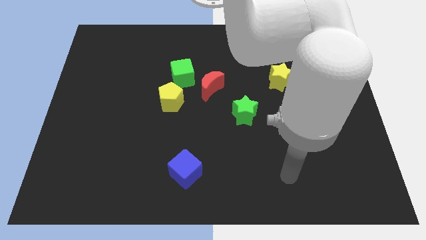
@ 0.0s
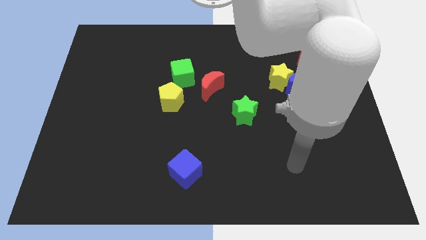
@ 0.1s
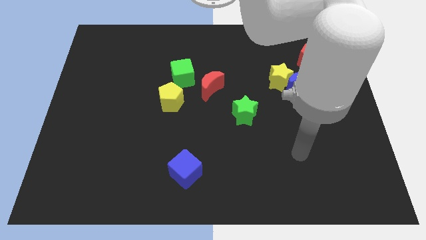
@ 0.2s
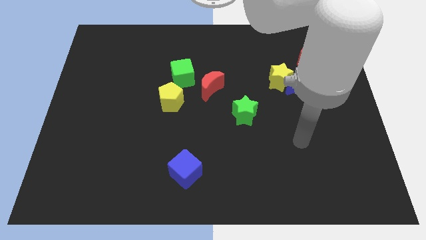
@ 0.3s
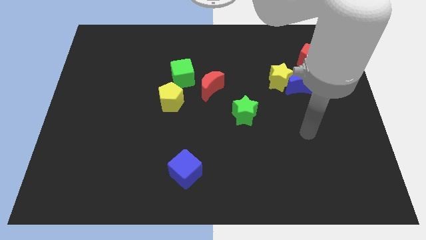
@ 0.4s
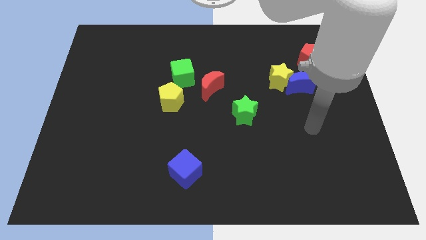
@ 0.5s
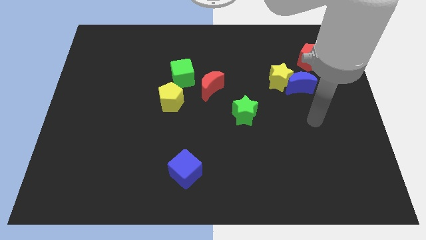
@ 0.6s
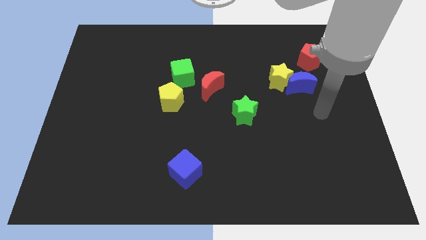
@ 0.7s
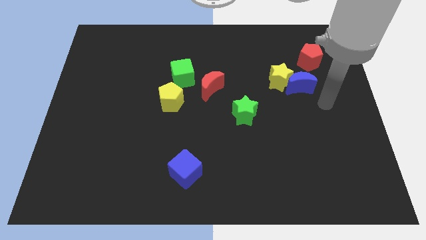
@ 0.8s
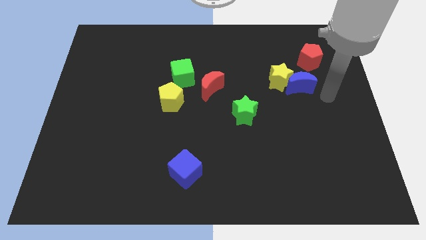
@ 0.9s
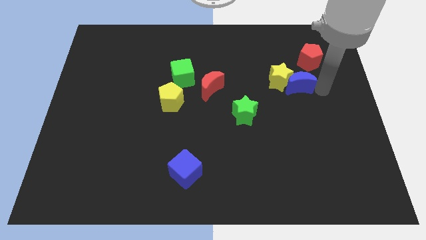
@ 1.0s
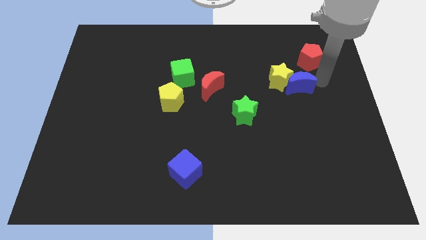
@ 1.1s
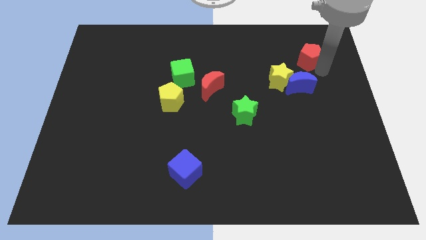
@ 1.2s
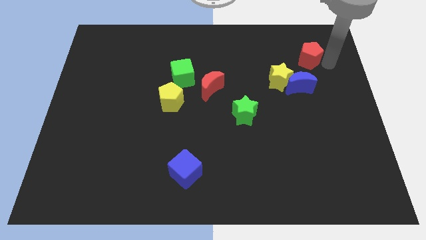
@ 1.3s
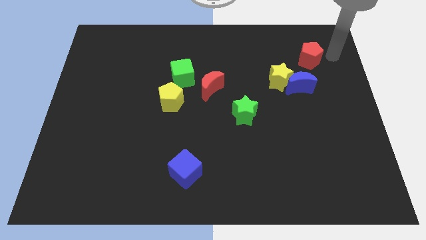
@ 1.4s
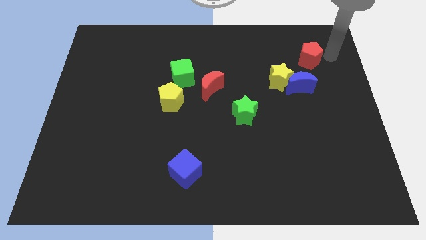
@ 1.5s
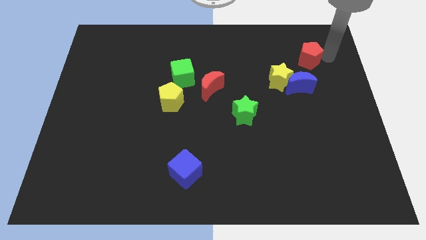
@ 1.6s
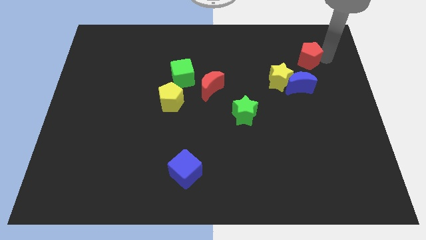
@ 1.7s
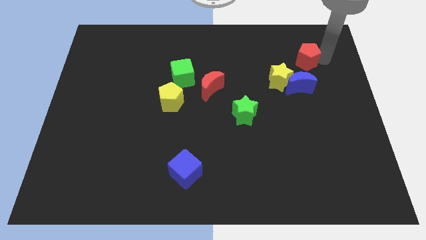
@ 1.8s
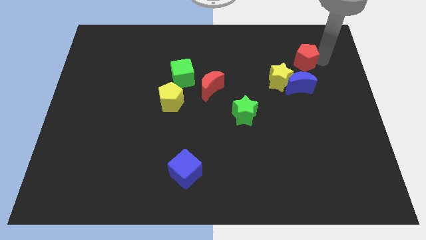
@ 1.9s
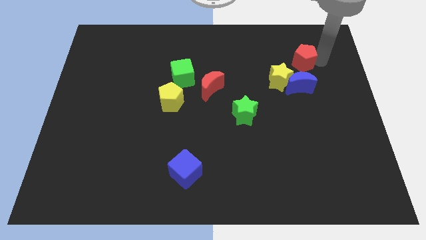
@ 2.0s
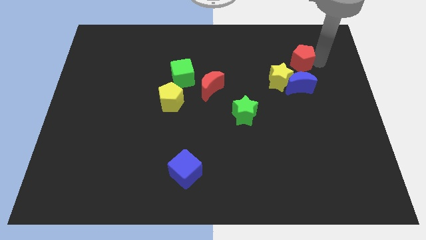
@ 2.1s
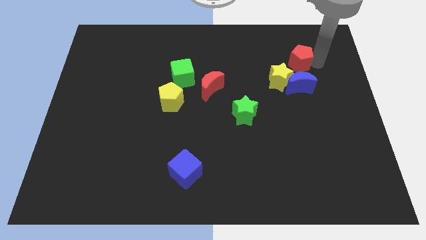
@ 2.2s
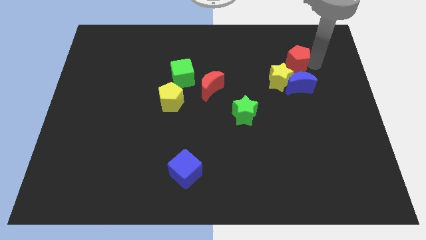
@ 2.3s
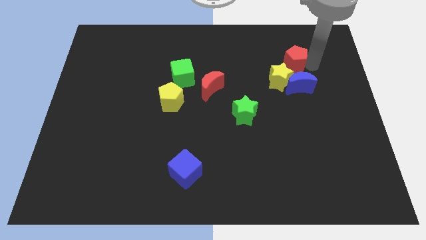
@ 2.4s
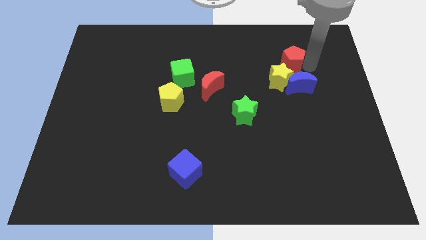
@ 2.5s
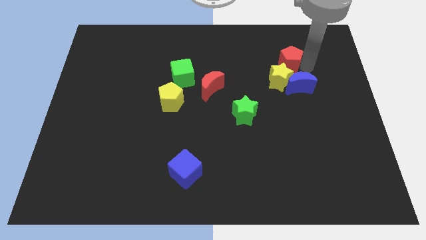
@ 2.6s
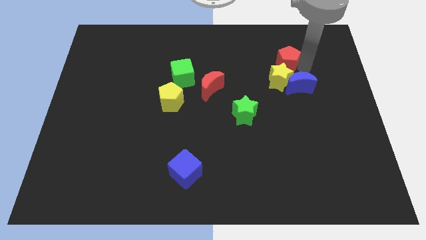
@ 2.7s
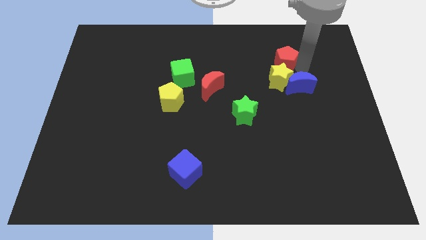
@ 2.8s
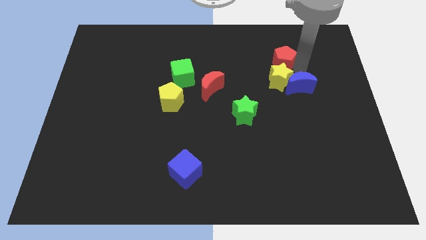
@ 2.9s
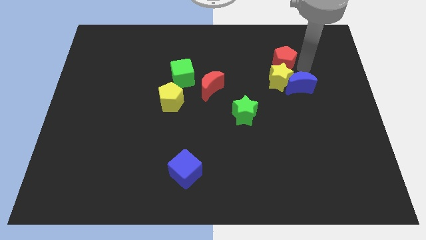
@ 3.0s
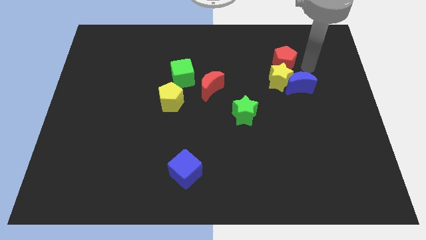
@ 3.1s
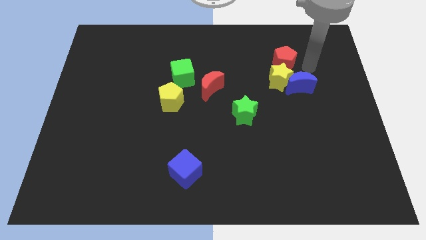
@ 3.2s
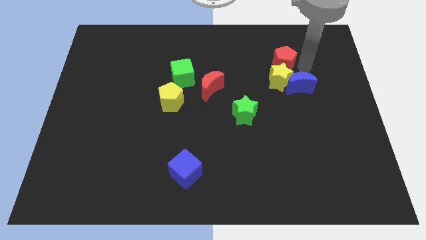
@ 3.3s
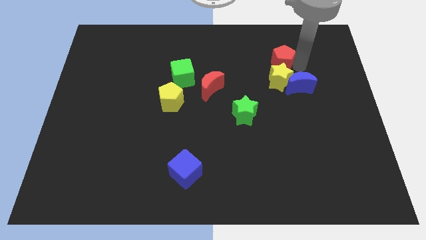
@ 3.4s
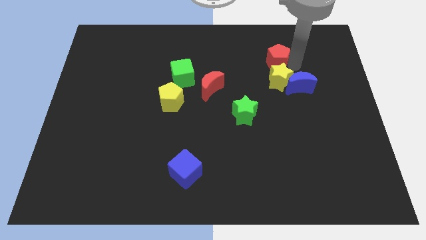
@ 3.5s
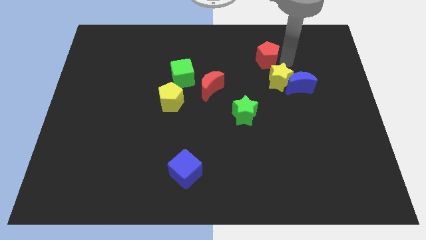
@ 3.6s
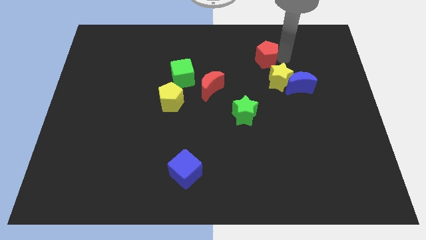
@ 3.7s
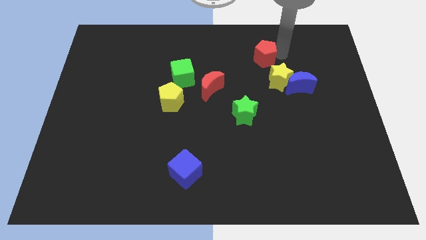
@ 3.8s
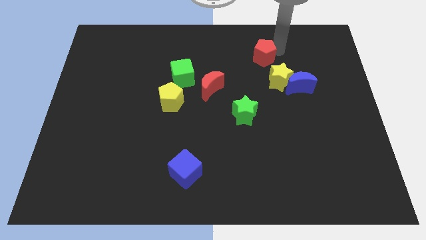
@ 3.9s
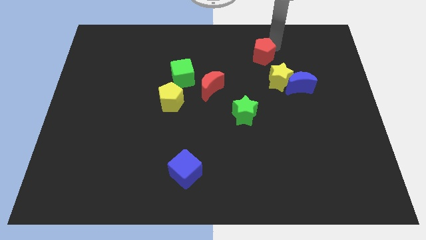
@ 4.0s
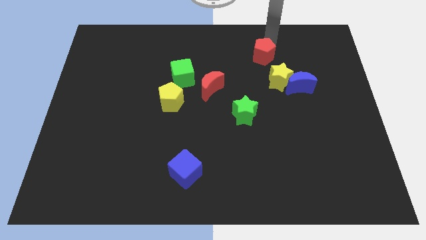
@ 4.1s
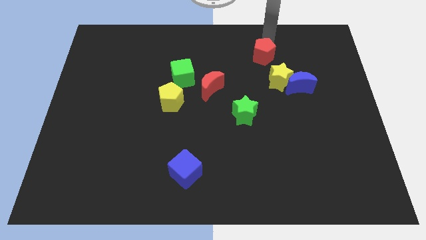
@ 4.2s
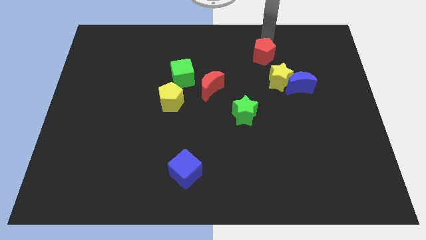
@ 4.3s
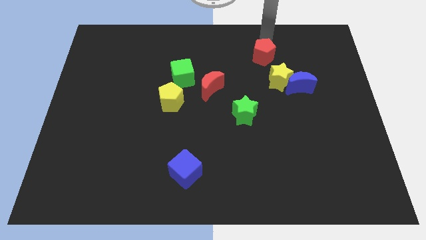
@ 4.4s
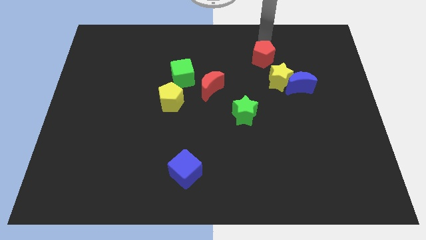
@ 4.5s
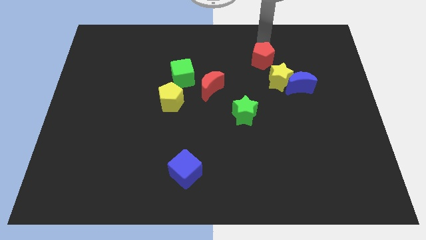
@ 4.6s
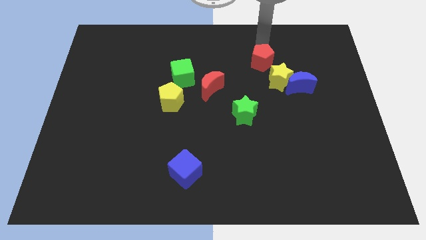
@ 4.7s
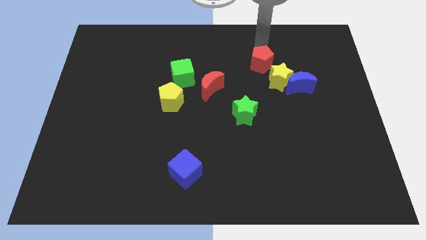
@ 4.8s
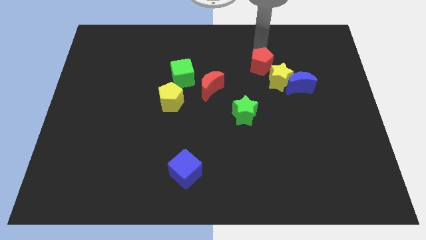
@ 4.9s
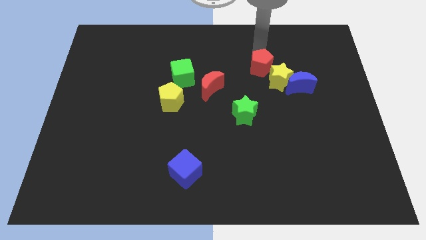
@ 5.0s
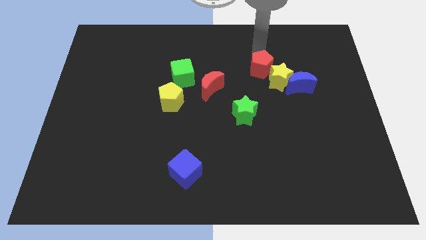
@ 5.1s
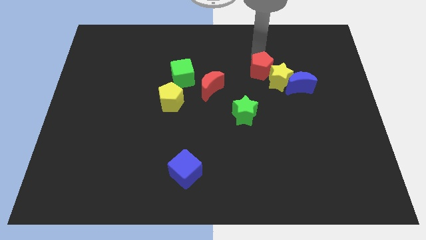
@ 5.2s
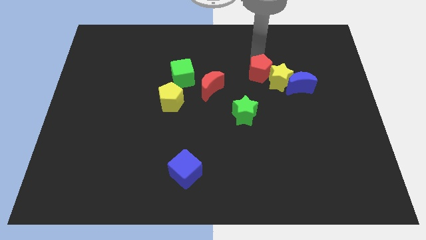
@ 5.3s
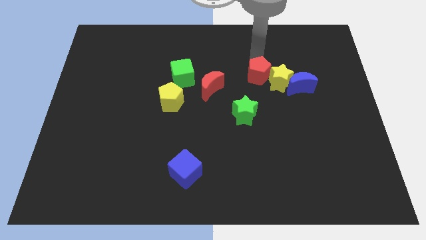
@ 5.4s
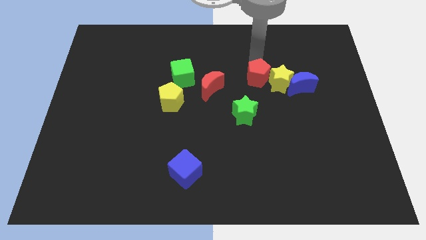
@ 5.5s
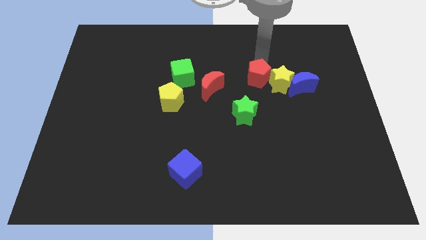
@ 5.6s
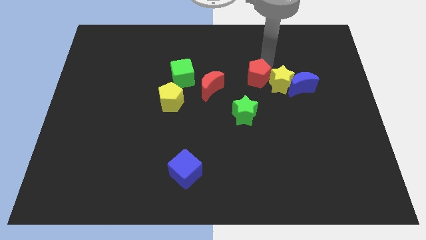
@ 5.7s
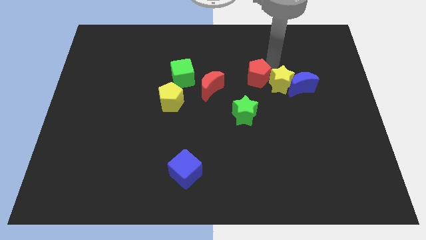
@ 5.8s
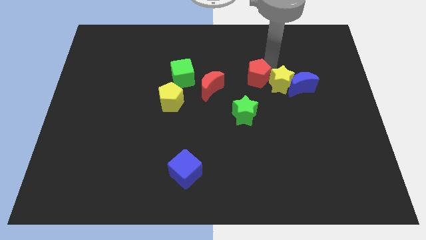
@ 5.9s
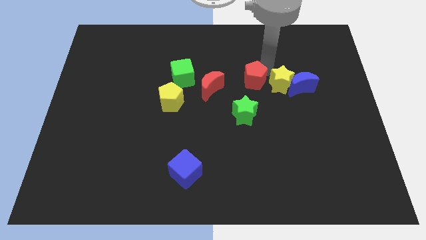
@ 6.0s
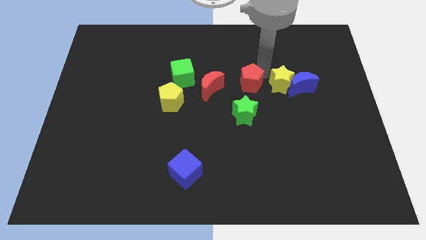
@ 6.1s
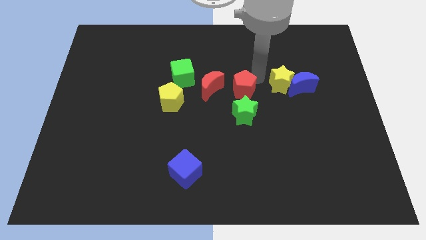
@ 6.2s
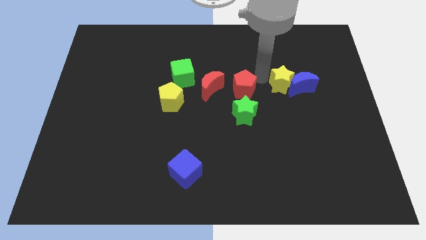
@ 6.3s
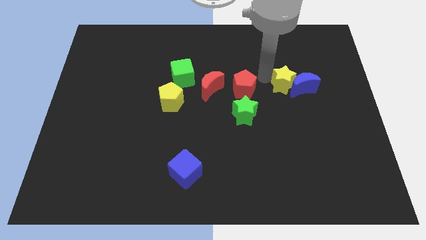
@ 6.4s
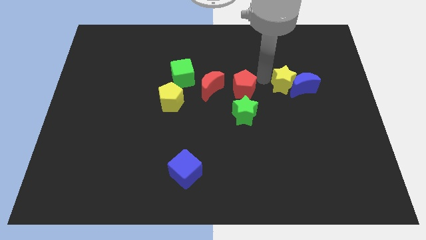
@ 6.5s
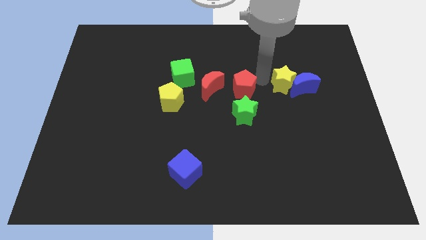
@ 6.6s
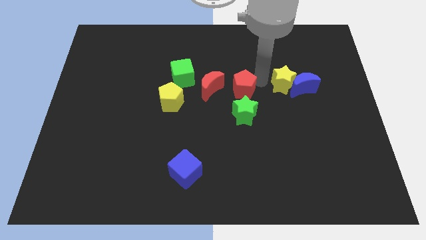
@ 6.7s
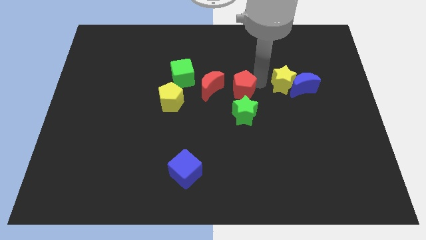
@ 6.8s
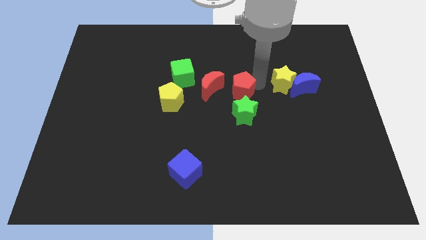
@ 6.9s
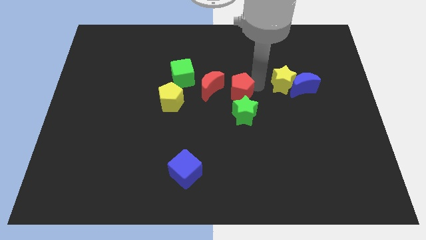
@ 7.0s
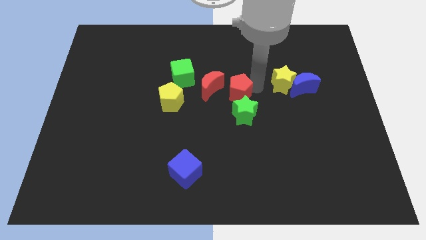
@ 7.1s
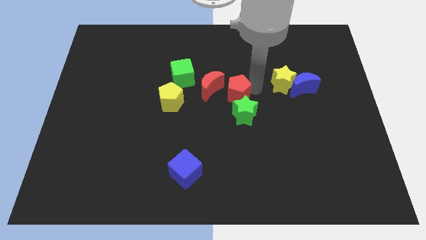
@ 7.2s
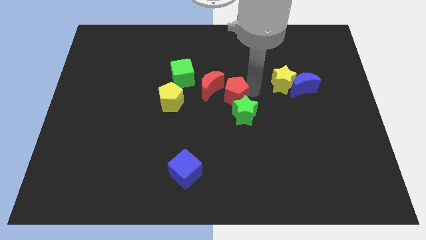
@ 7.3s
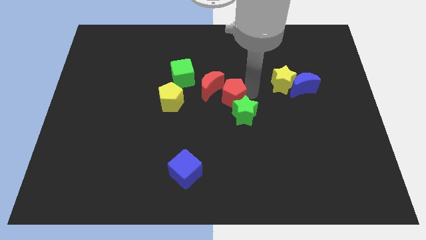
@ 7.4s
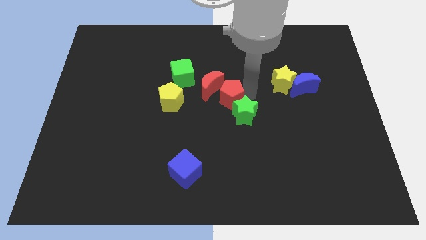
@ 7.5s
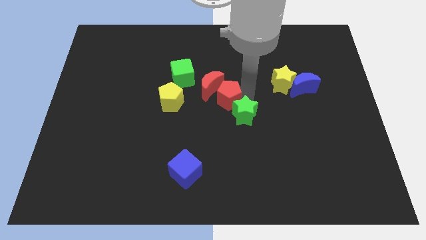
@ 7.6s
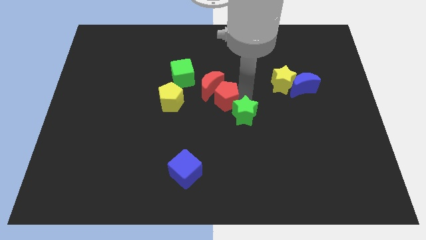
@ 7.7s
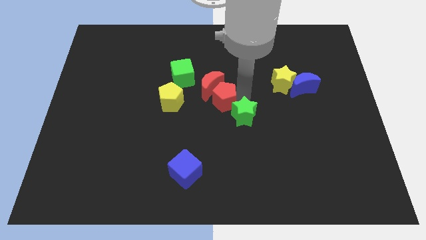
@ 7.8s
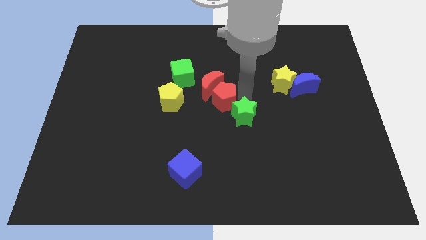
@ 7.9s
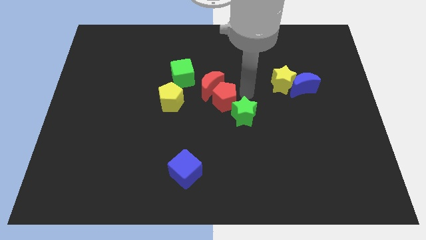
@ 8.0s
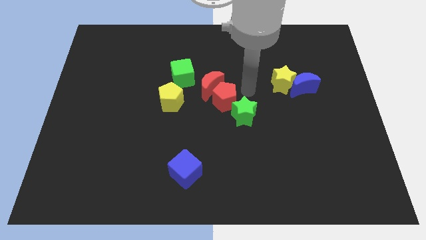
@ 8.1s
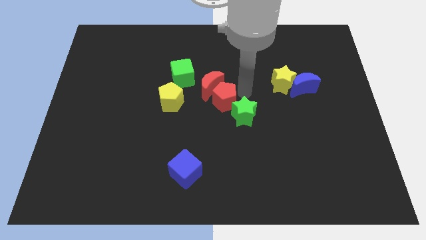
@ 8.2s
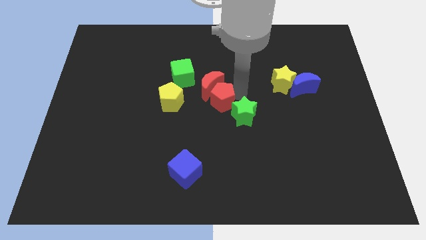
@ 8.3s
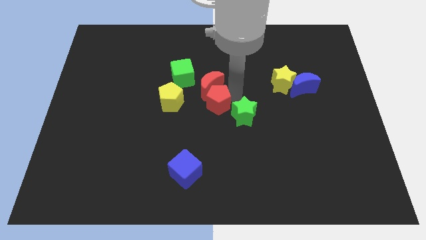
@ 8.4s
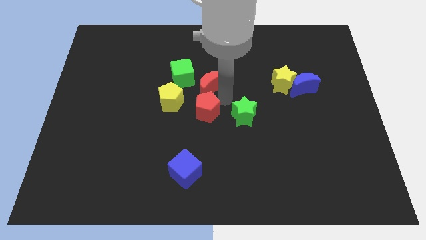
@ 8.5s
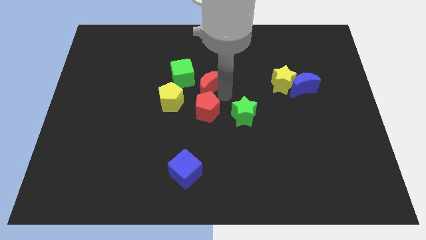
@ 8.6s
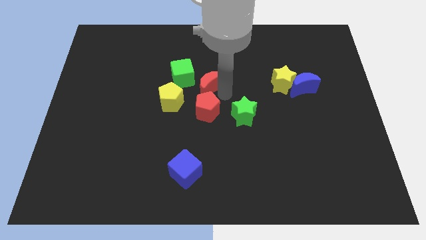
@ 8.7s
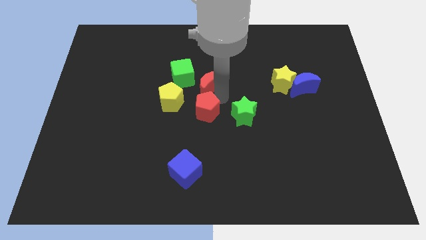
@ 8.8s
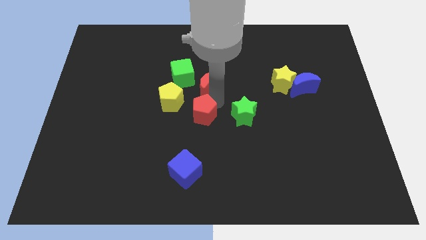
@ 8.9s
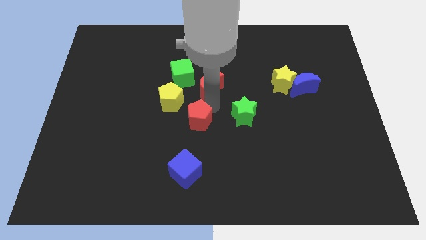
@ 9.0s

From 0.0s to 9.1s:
put the red pentagon to the top of the blue cube
